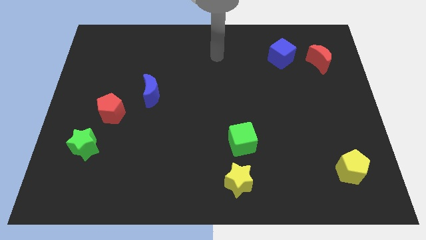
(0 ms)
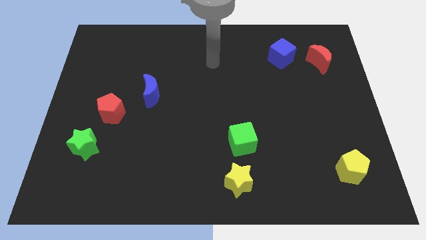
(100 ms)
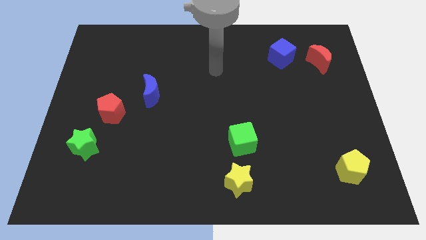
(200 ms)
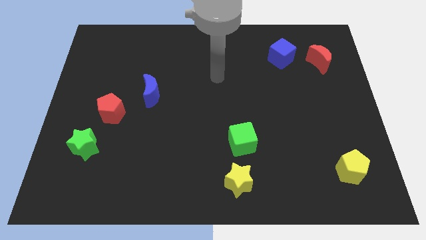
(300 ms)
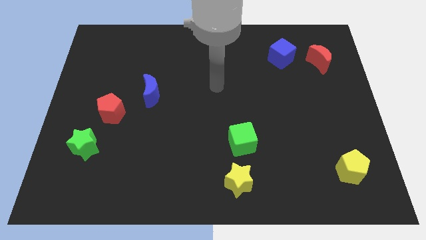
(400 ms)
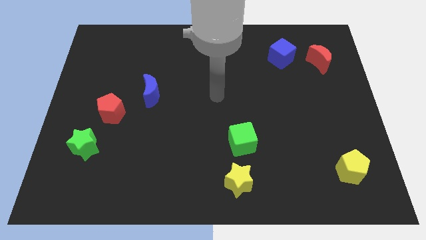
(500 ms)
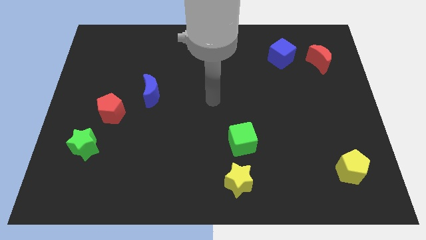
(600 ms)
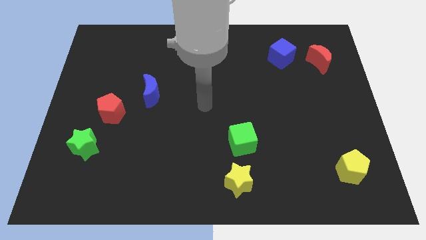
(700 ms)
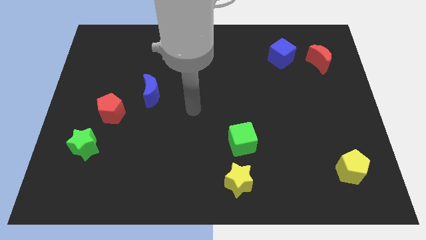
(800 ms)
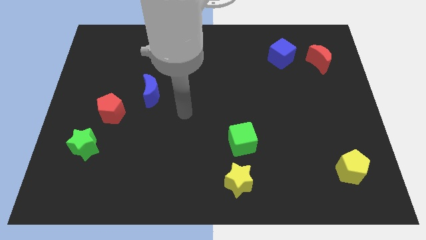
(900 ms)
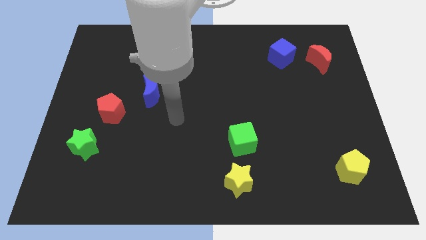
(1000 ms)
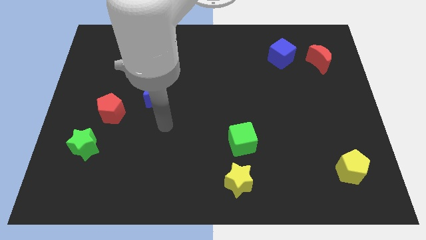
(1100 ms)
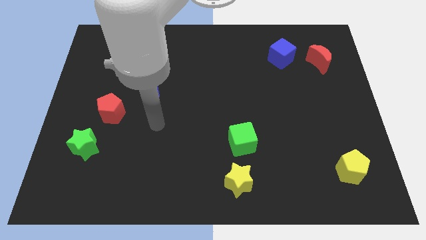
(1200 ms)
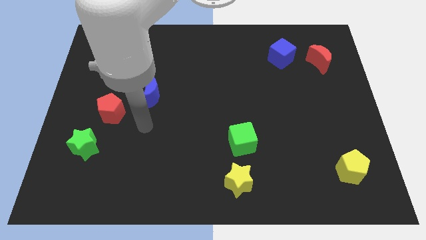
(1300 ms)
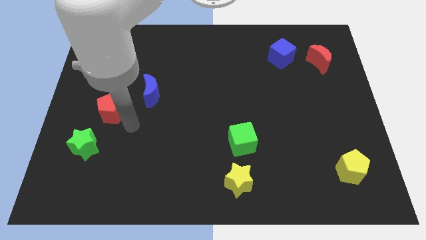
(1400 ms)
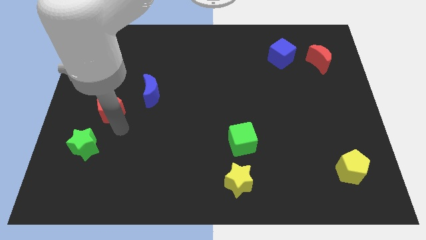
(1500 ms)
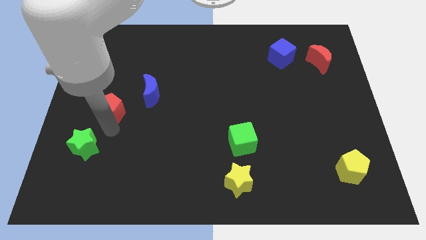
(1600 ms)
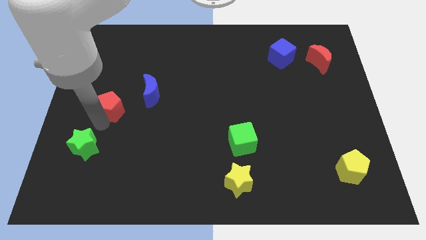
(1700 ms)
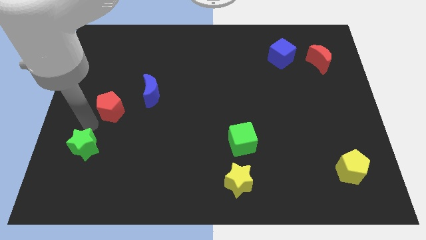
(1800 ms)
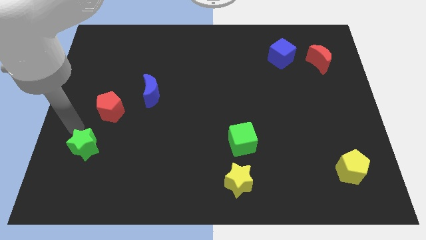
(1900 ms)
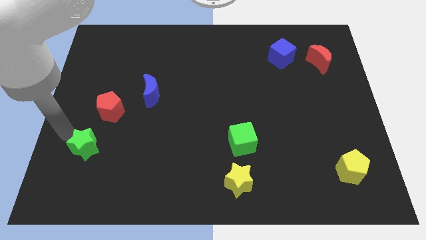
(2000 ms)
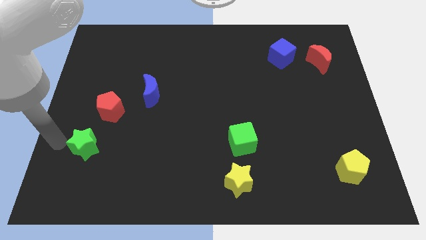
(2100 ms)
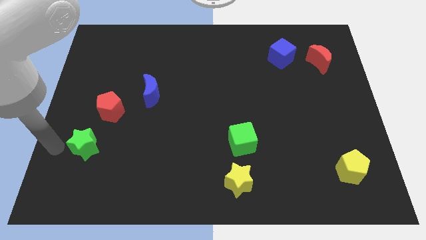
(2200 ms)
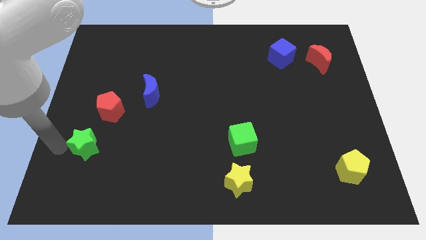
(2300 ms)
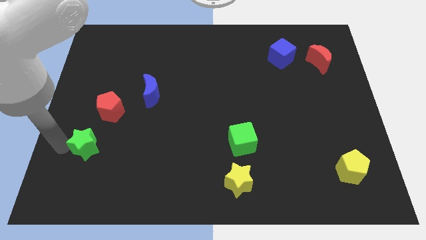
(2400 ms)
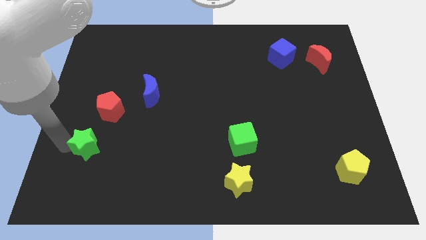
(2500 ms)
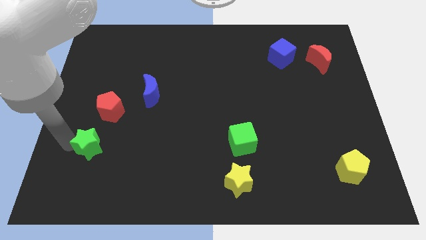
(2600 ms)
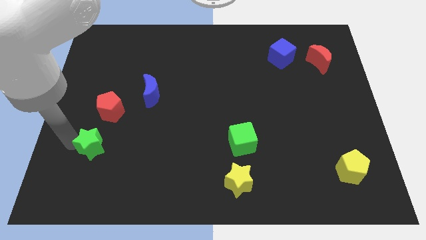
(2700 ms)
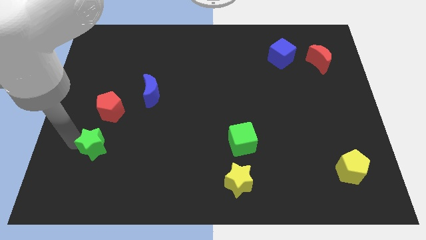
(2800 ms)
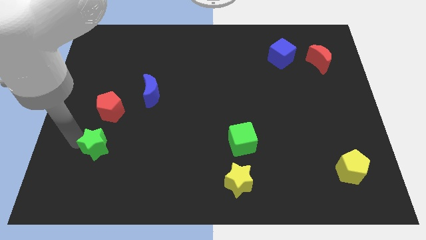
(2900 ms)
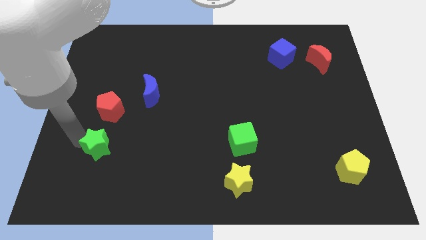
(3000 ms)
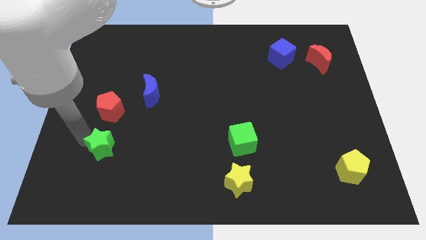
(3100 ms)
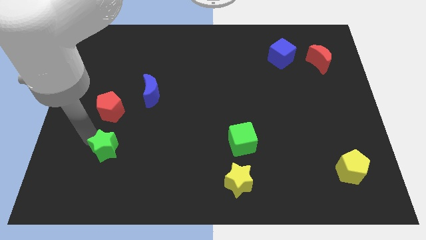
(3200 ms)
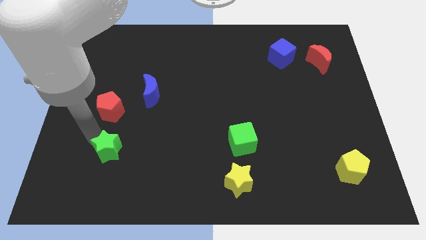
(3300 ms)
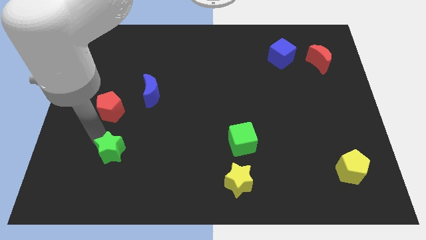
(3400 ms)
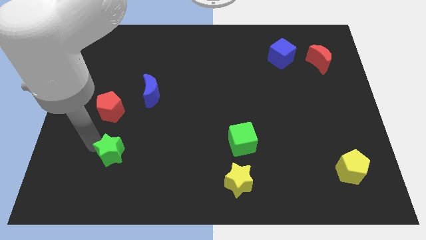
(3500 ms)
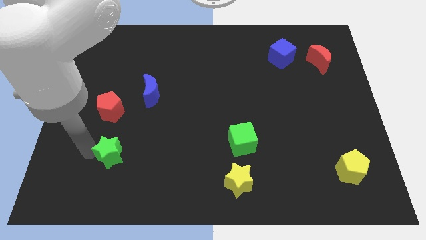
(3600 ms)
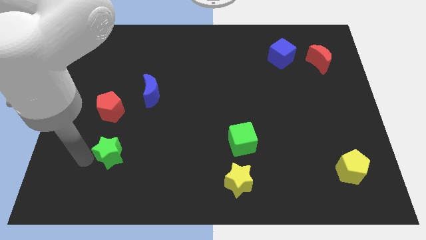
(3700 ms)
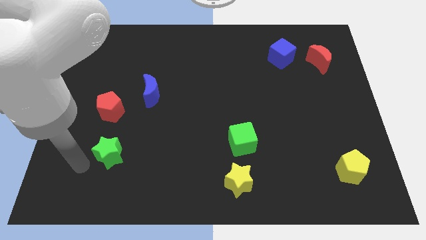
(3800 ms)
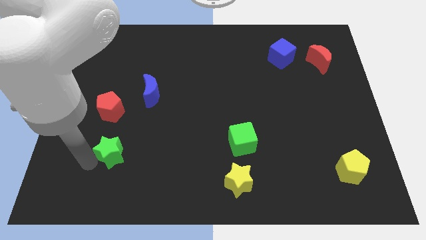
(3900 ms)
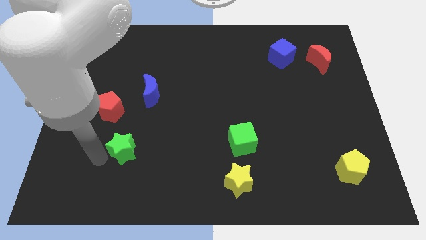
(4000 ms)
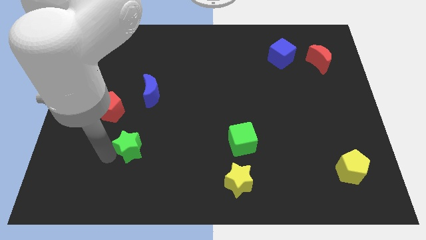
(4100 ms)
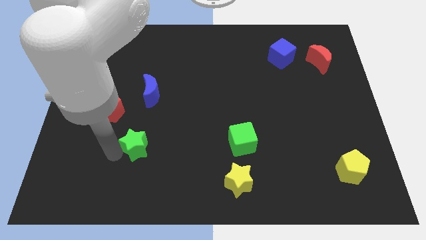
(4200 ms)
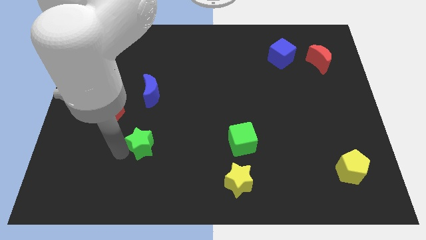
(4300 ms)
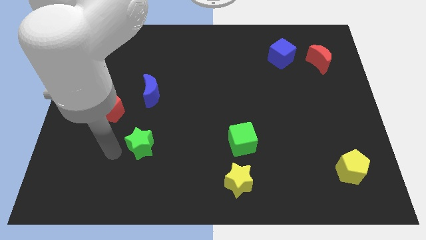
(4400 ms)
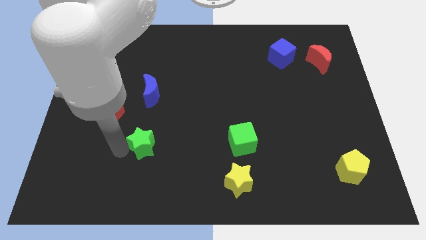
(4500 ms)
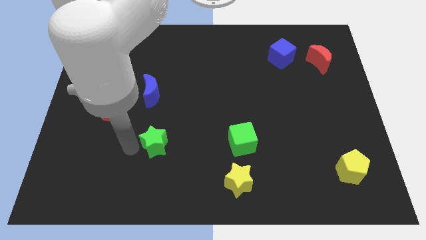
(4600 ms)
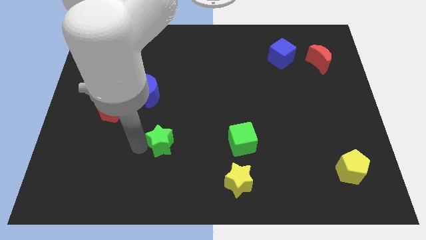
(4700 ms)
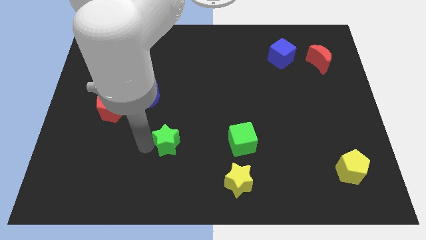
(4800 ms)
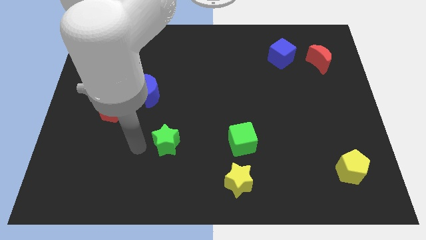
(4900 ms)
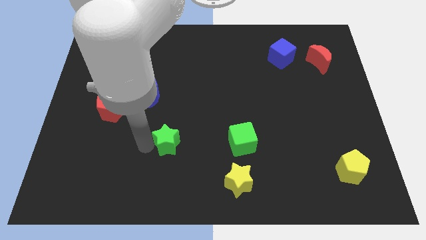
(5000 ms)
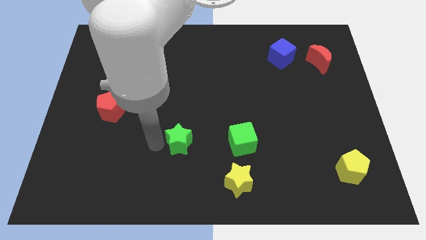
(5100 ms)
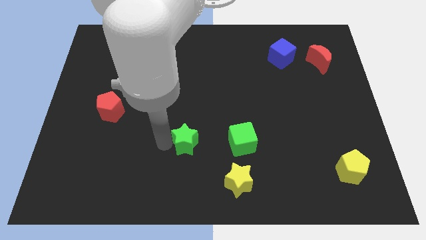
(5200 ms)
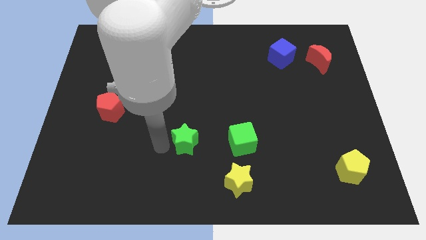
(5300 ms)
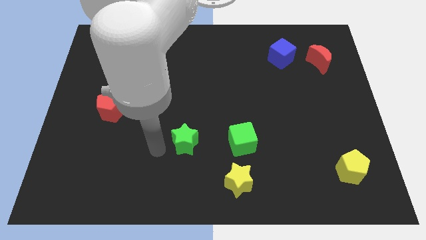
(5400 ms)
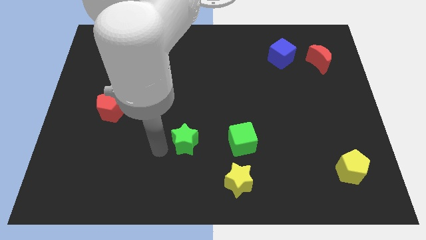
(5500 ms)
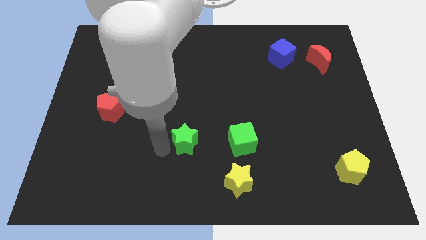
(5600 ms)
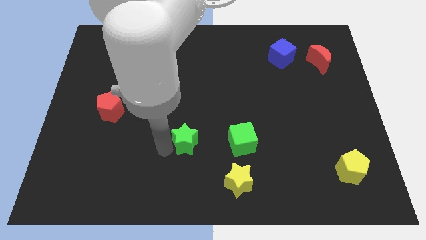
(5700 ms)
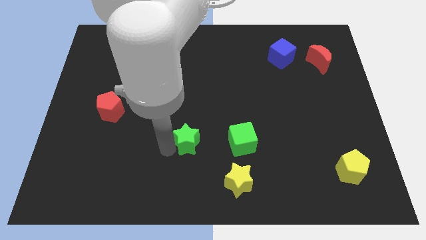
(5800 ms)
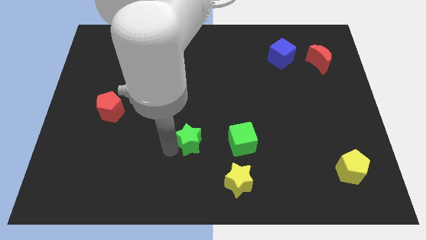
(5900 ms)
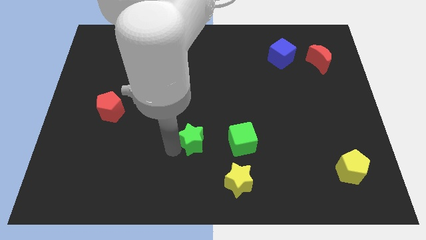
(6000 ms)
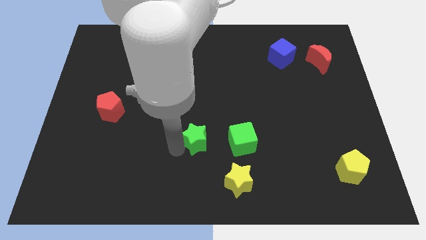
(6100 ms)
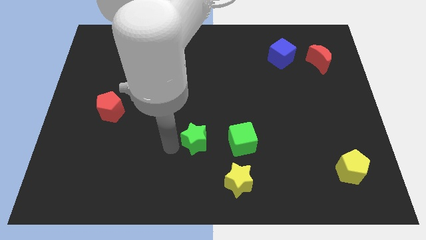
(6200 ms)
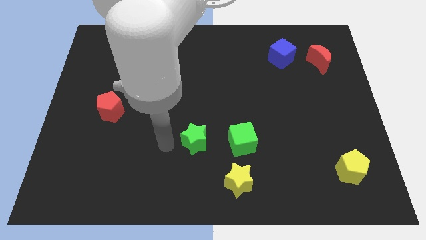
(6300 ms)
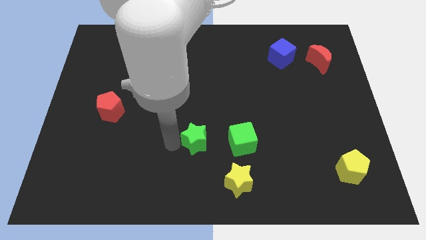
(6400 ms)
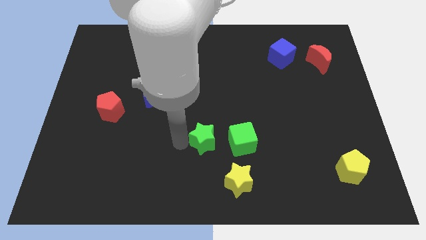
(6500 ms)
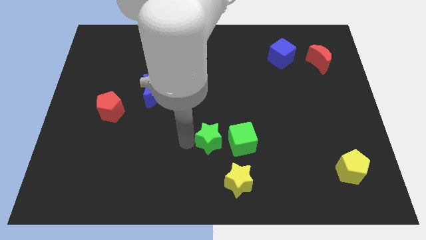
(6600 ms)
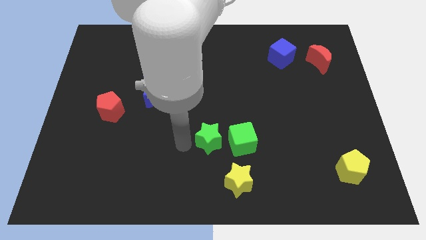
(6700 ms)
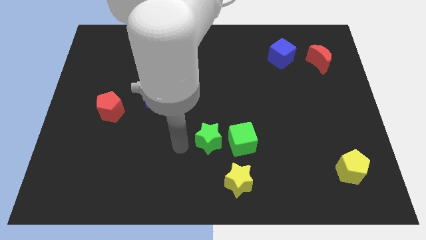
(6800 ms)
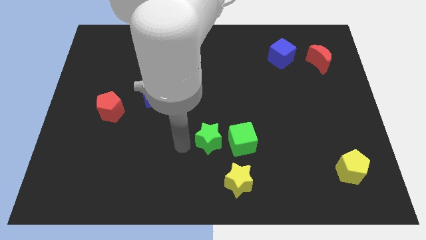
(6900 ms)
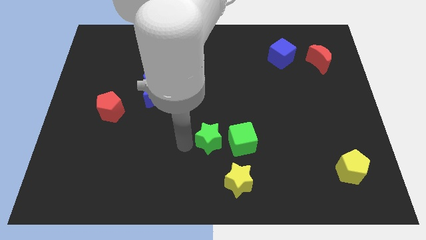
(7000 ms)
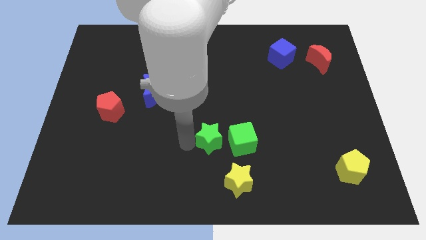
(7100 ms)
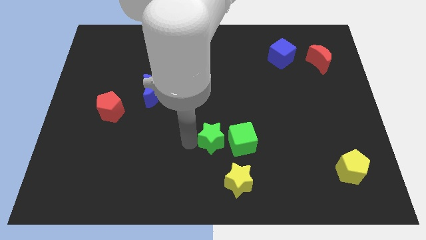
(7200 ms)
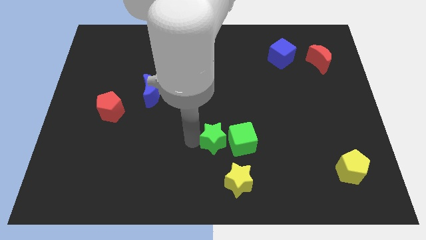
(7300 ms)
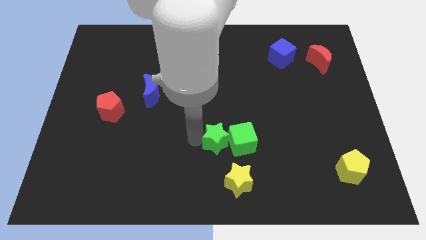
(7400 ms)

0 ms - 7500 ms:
move the green star close to the green cube
